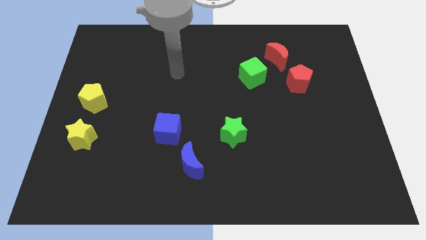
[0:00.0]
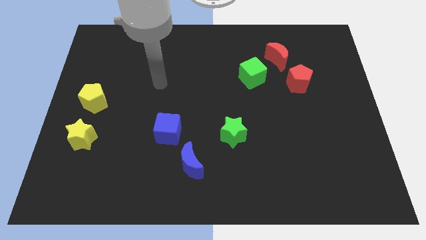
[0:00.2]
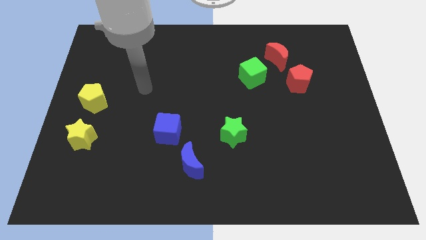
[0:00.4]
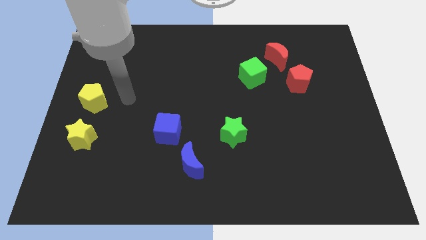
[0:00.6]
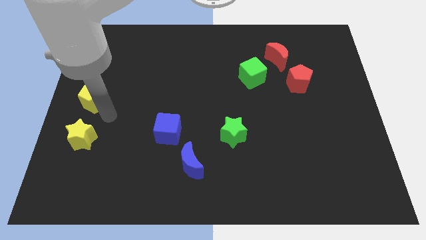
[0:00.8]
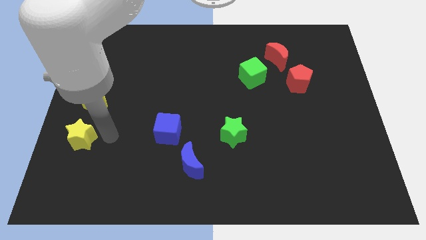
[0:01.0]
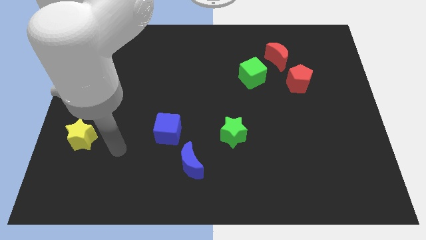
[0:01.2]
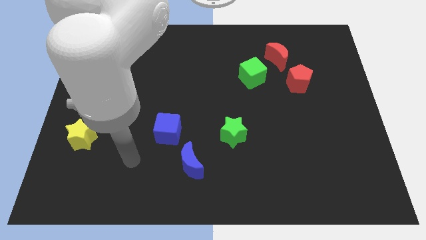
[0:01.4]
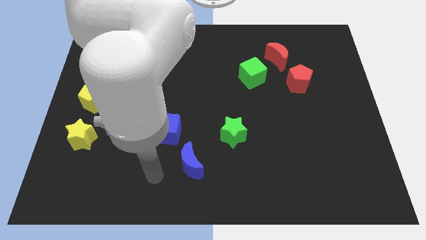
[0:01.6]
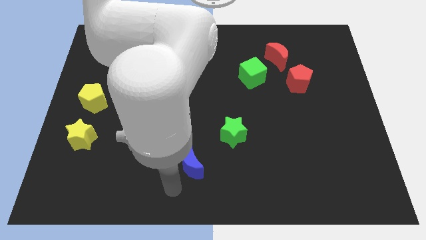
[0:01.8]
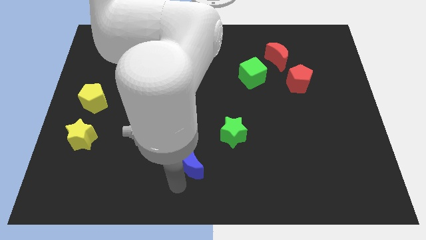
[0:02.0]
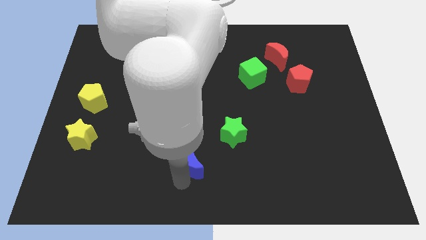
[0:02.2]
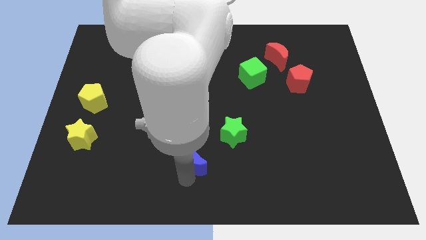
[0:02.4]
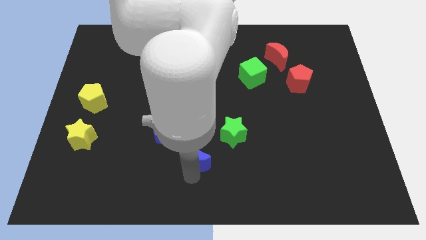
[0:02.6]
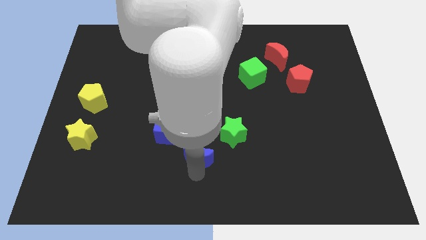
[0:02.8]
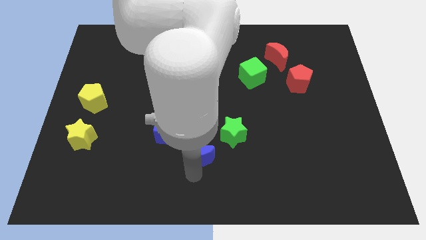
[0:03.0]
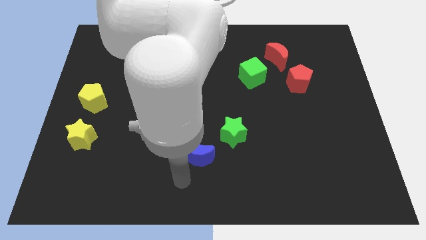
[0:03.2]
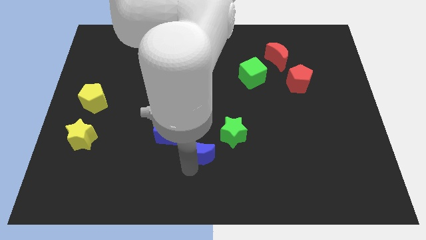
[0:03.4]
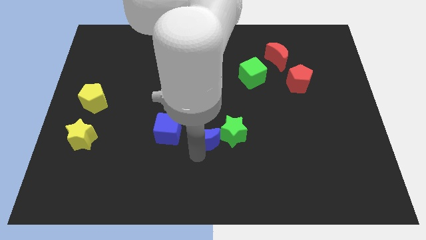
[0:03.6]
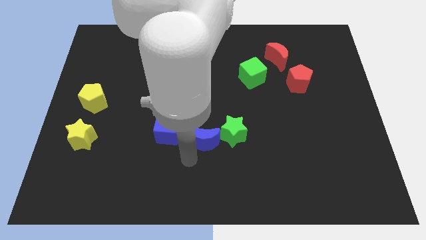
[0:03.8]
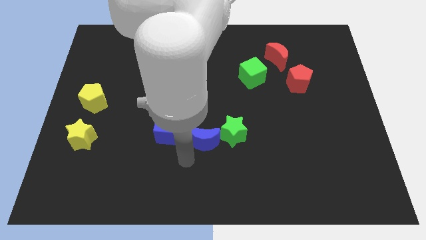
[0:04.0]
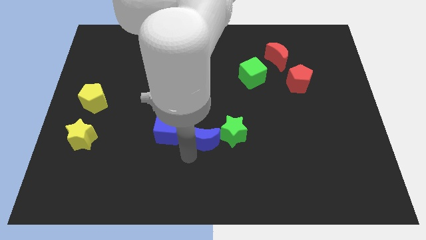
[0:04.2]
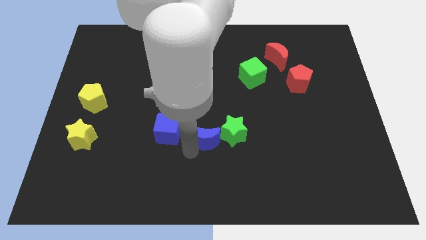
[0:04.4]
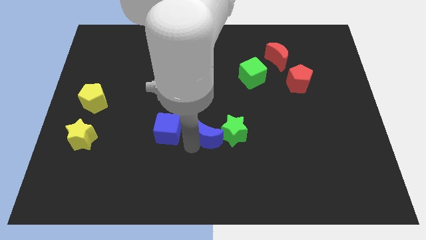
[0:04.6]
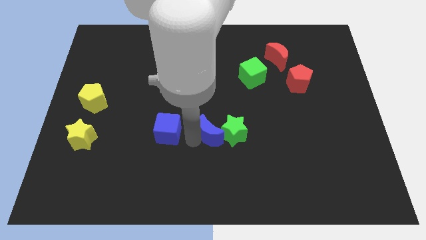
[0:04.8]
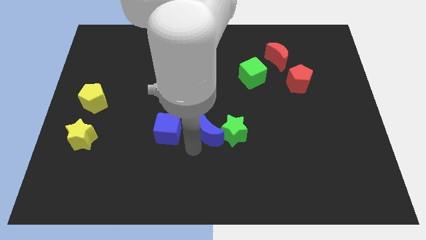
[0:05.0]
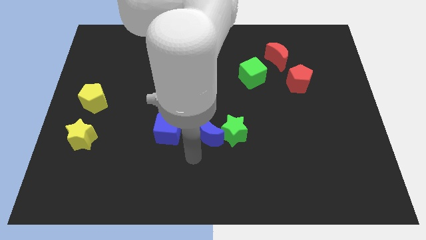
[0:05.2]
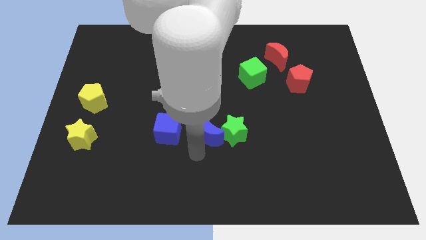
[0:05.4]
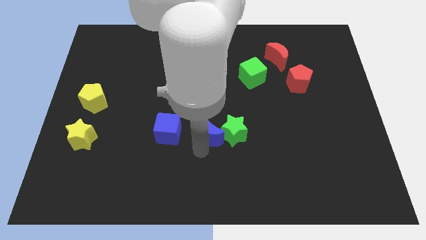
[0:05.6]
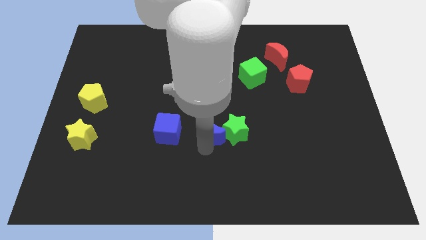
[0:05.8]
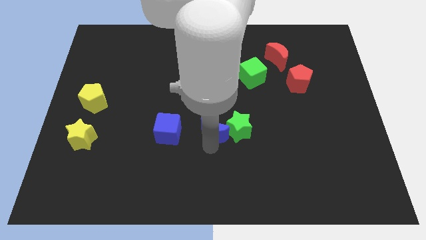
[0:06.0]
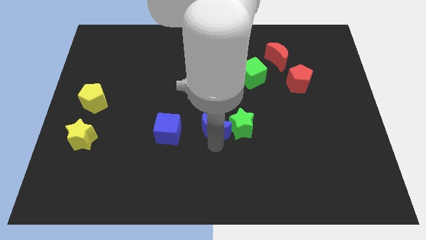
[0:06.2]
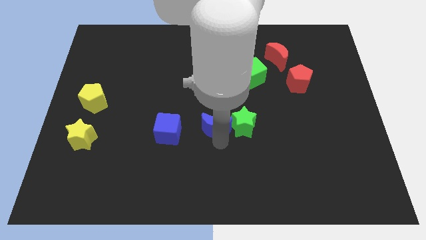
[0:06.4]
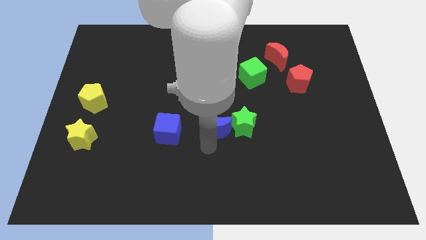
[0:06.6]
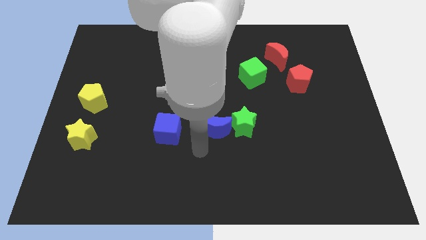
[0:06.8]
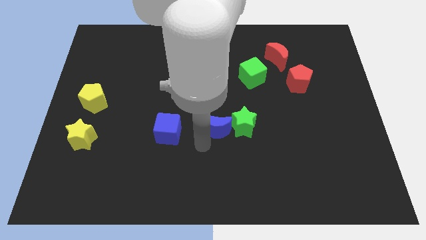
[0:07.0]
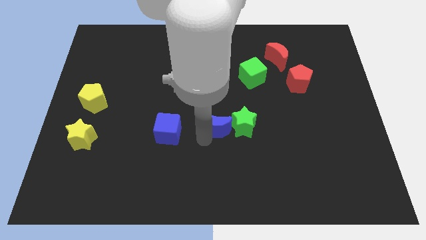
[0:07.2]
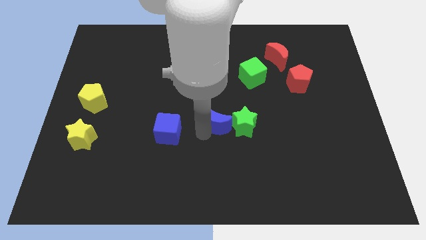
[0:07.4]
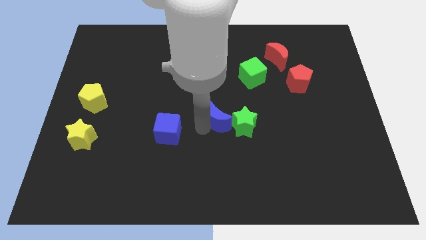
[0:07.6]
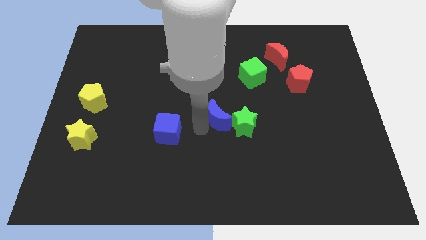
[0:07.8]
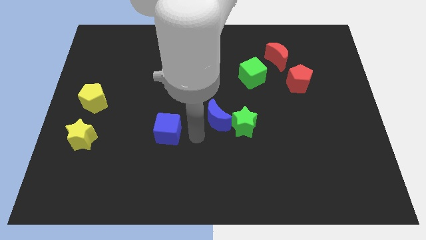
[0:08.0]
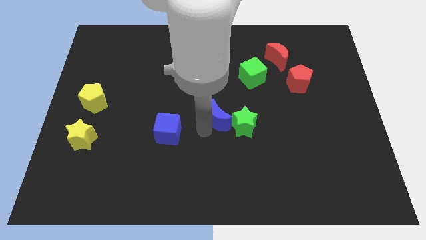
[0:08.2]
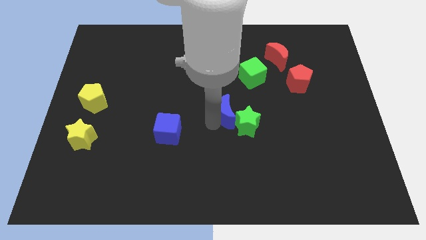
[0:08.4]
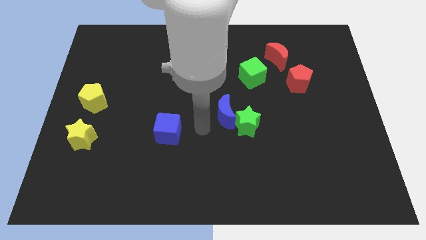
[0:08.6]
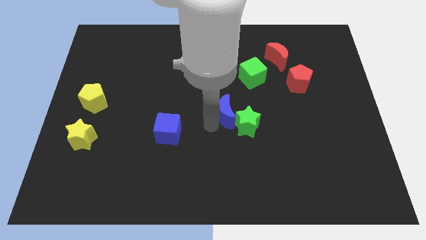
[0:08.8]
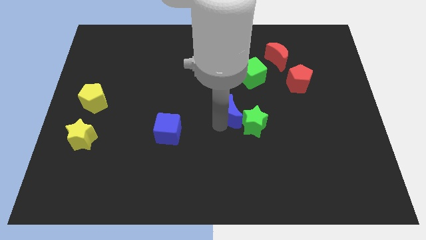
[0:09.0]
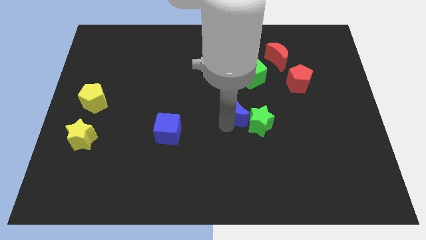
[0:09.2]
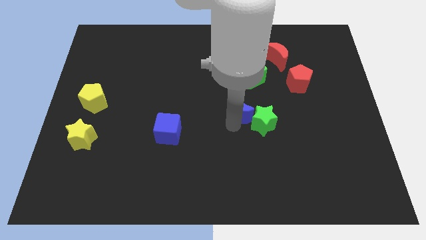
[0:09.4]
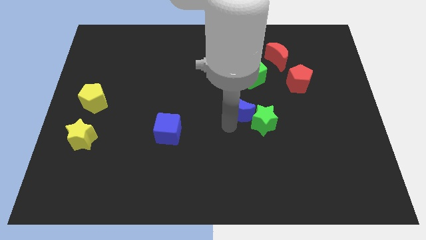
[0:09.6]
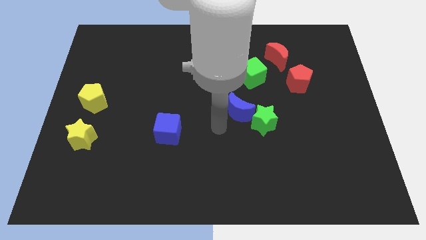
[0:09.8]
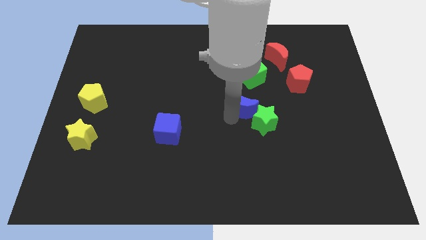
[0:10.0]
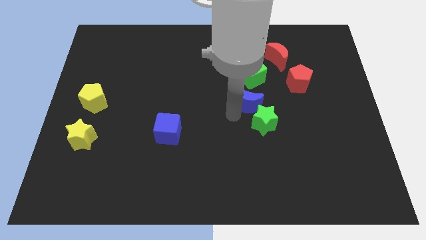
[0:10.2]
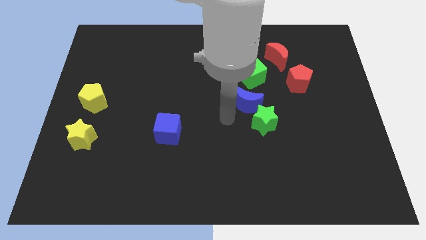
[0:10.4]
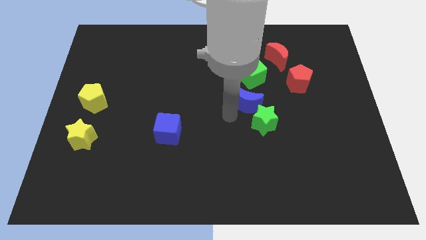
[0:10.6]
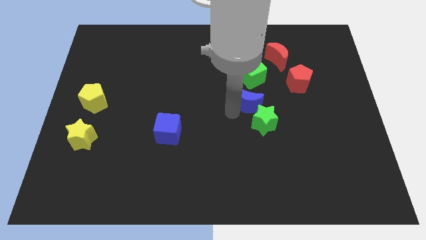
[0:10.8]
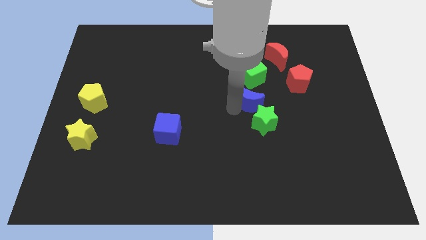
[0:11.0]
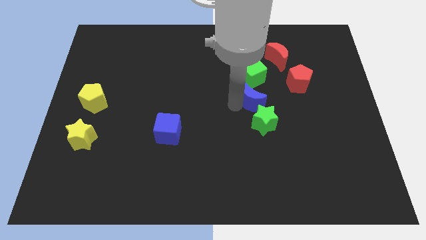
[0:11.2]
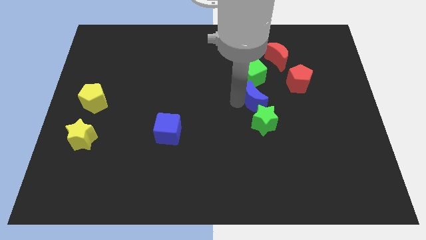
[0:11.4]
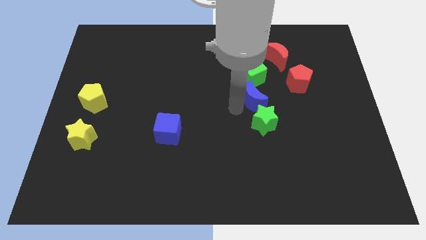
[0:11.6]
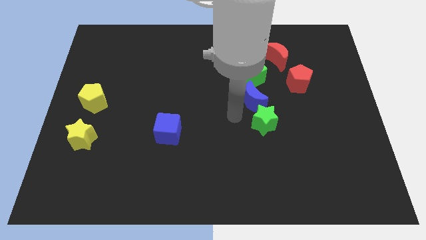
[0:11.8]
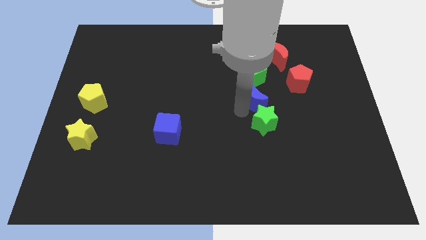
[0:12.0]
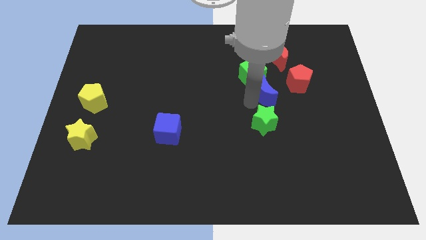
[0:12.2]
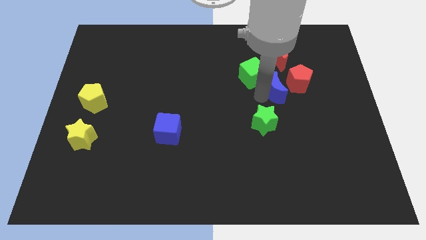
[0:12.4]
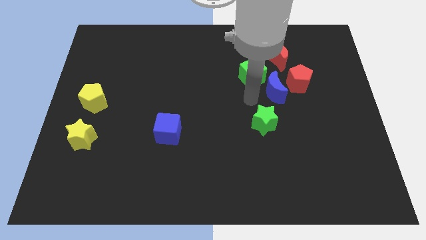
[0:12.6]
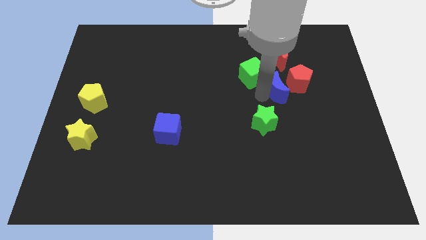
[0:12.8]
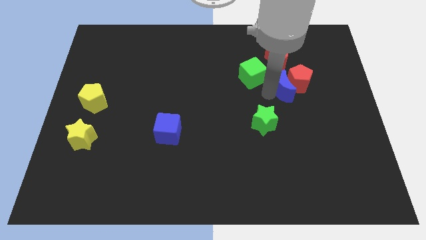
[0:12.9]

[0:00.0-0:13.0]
push the blue moon next to the red pentagon
